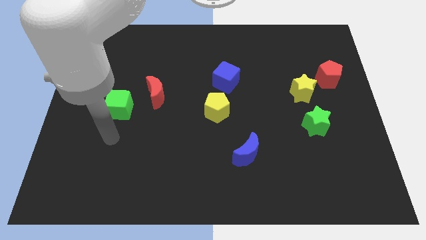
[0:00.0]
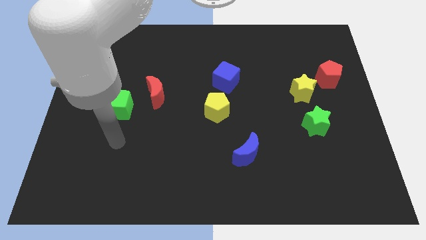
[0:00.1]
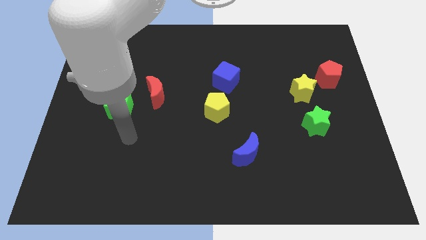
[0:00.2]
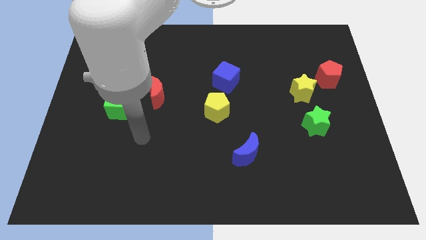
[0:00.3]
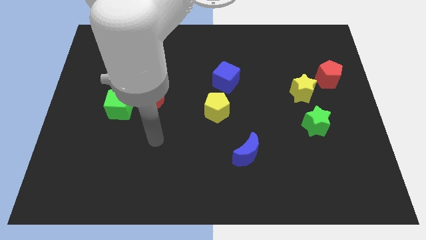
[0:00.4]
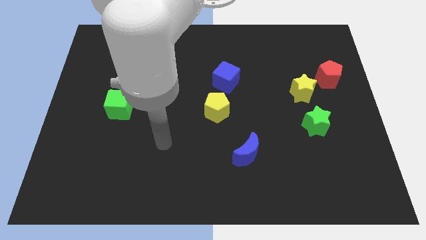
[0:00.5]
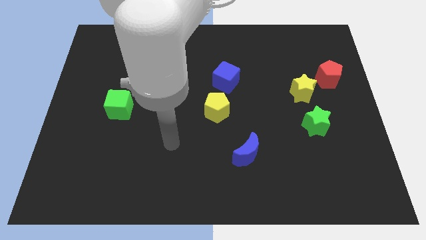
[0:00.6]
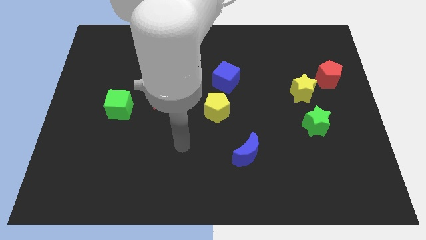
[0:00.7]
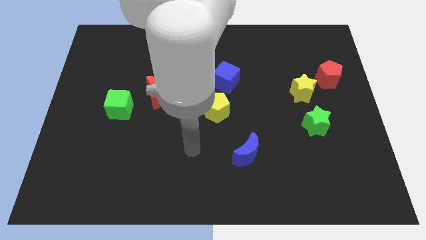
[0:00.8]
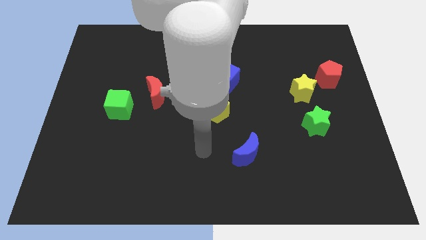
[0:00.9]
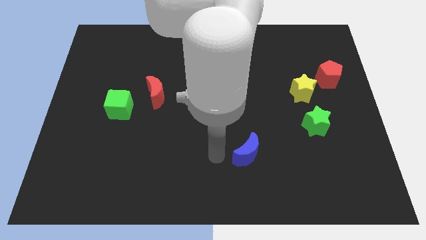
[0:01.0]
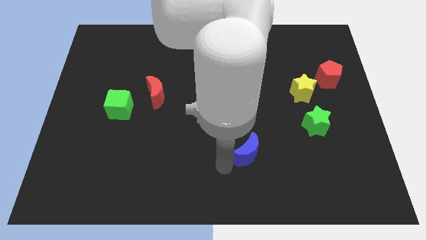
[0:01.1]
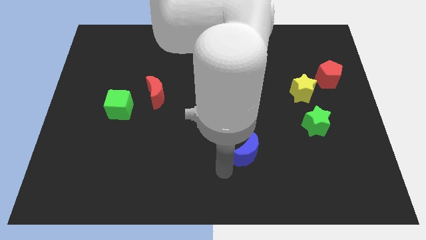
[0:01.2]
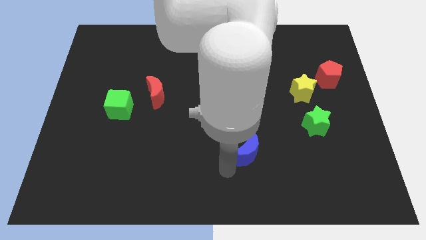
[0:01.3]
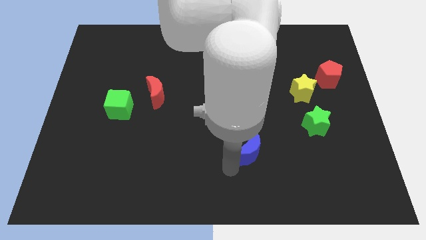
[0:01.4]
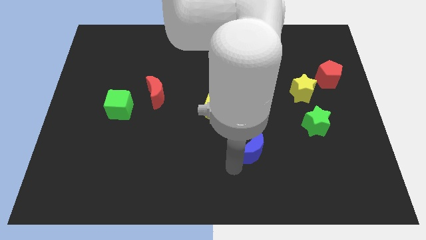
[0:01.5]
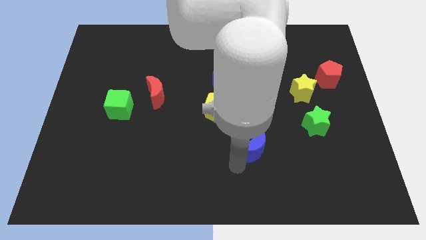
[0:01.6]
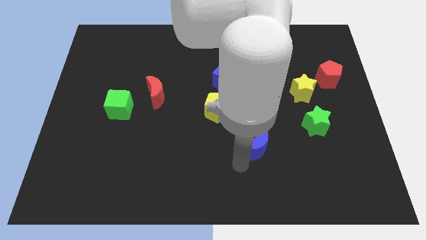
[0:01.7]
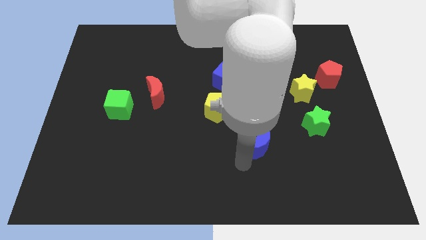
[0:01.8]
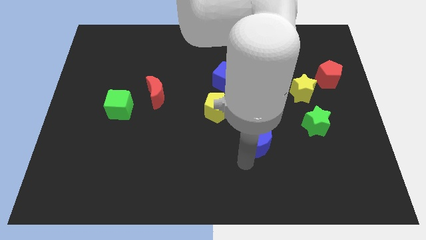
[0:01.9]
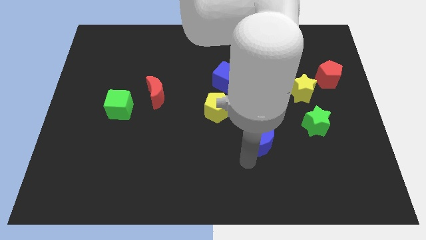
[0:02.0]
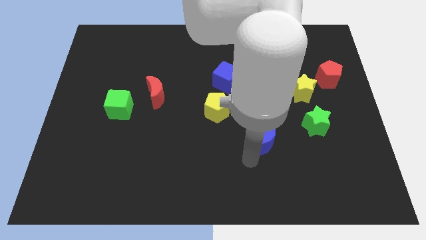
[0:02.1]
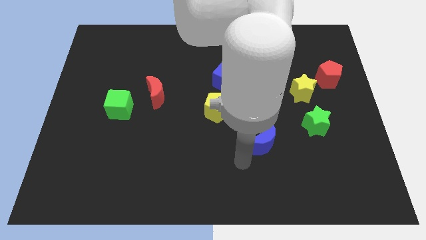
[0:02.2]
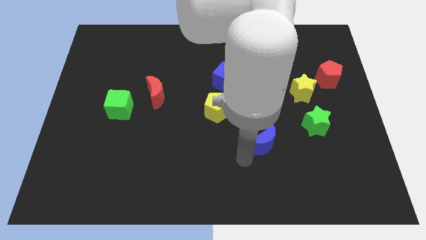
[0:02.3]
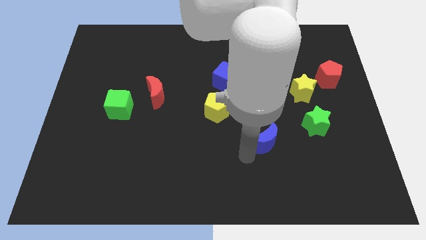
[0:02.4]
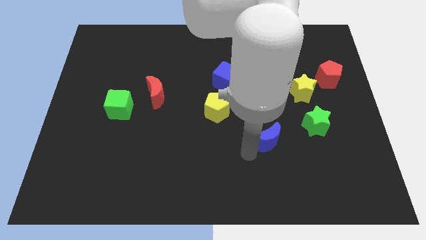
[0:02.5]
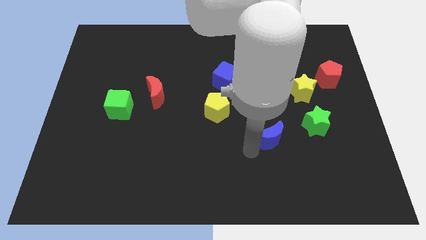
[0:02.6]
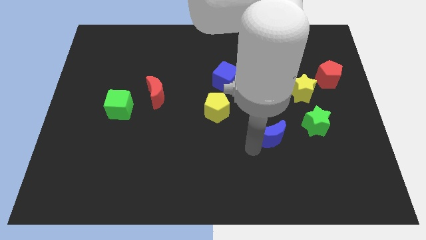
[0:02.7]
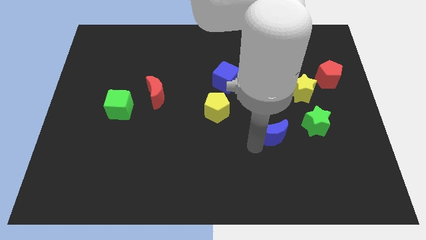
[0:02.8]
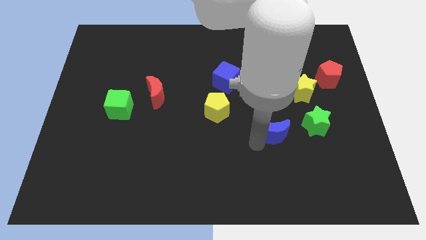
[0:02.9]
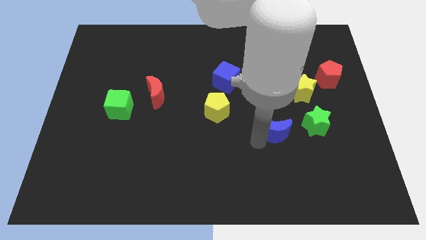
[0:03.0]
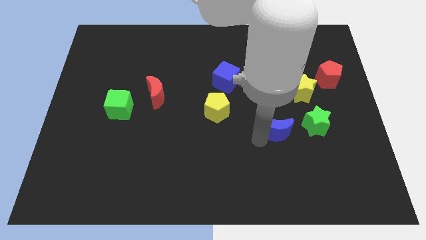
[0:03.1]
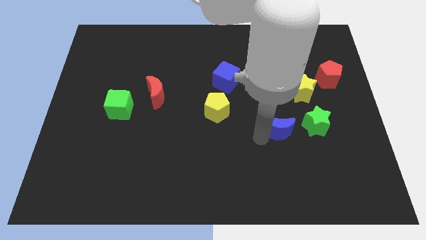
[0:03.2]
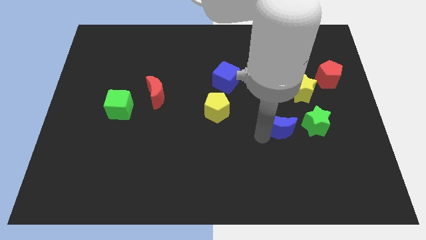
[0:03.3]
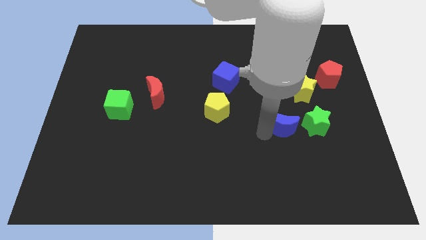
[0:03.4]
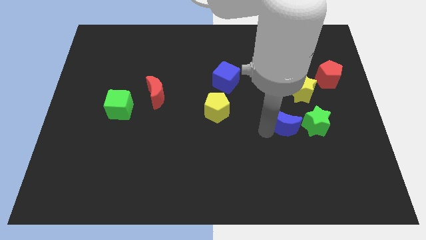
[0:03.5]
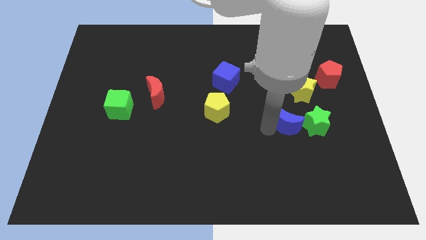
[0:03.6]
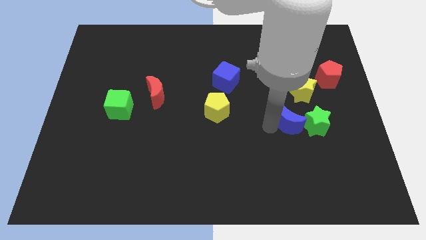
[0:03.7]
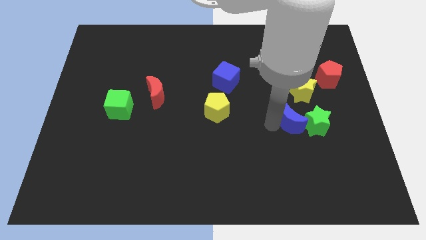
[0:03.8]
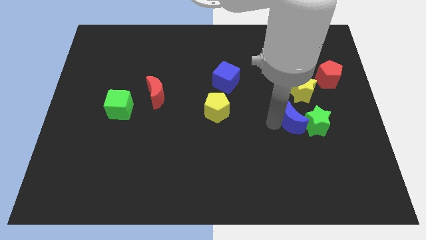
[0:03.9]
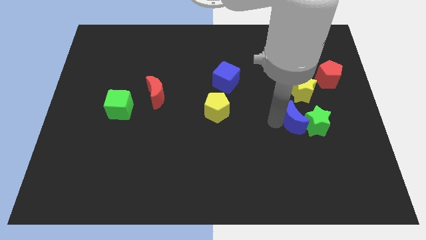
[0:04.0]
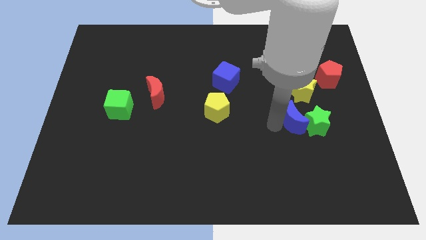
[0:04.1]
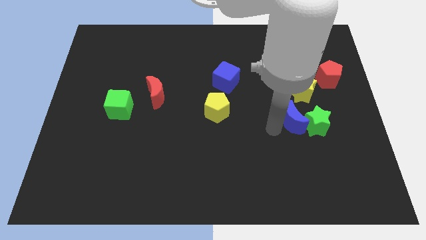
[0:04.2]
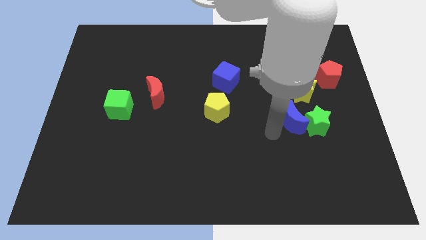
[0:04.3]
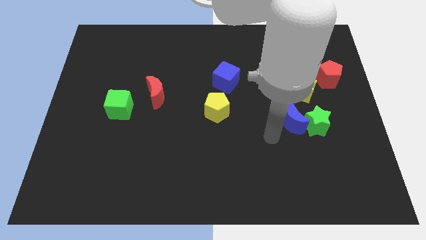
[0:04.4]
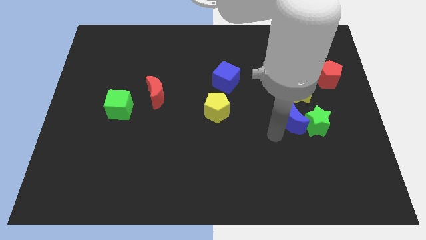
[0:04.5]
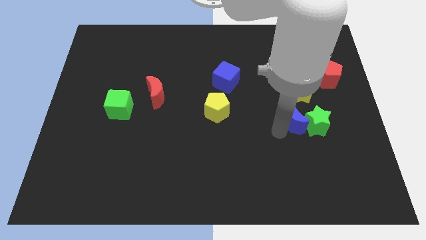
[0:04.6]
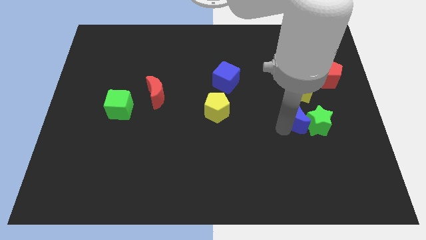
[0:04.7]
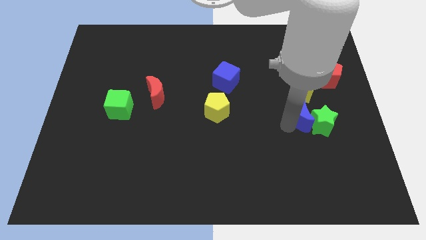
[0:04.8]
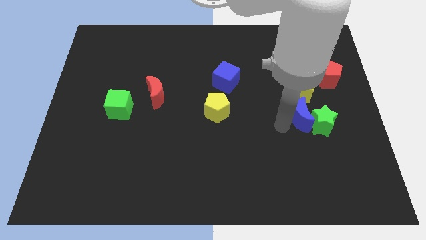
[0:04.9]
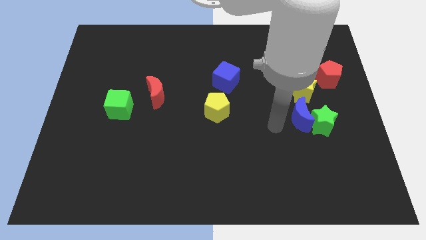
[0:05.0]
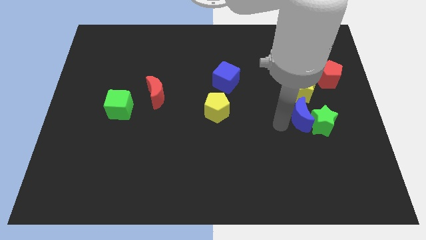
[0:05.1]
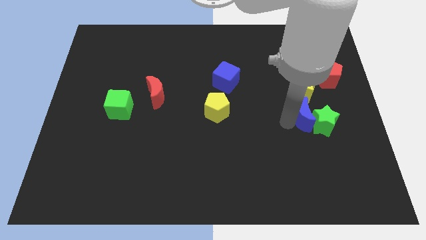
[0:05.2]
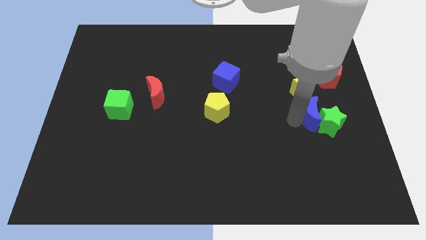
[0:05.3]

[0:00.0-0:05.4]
put the blue moon diagonally down and to the right of the yellow star

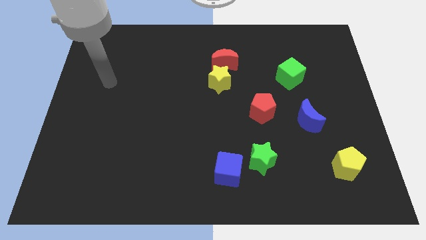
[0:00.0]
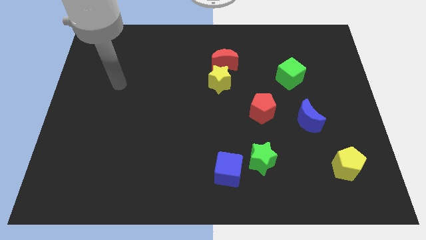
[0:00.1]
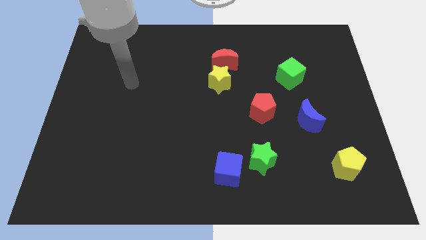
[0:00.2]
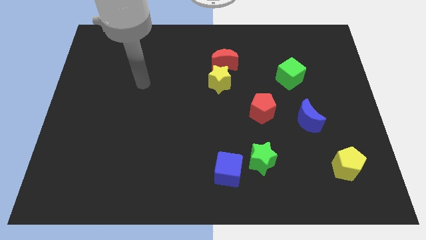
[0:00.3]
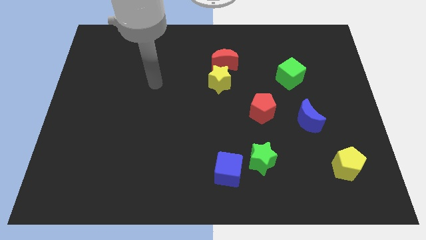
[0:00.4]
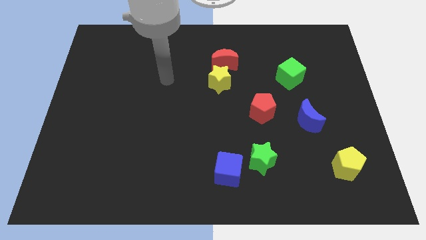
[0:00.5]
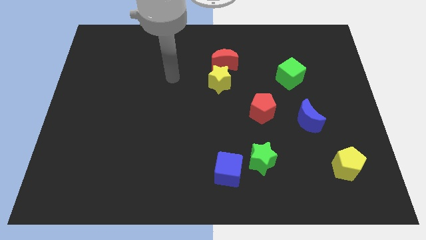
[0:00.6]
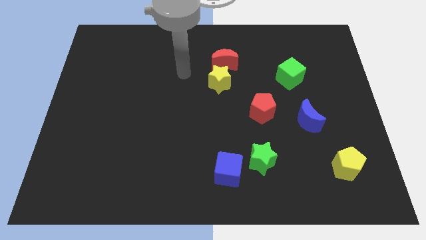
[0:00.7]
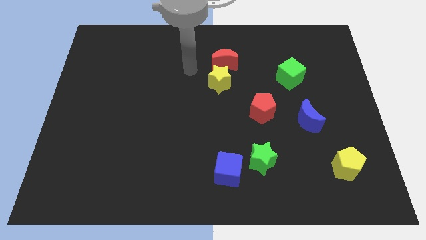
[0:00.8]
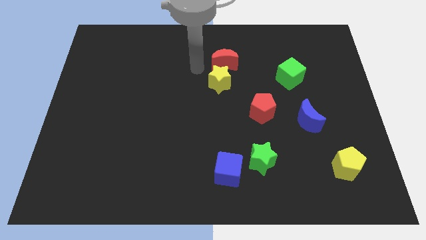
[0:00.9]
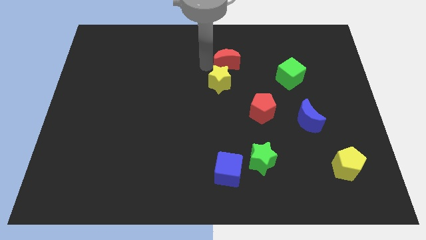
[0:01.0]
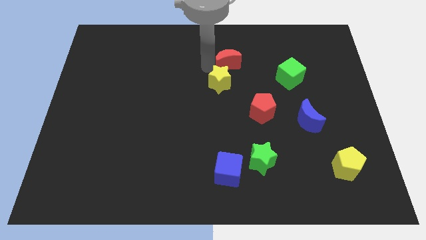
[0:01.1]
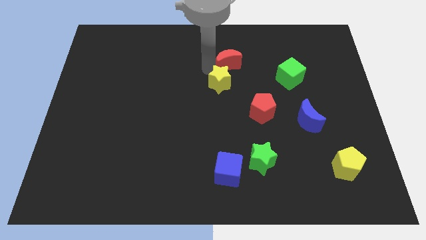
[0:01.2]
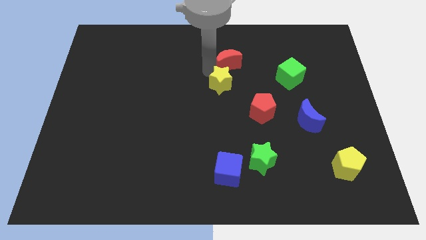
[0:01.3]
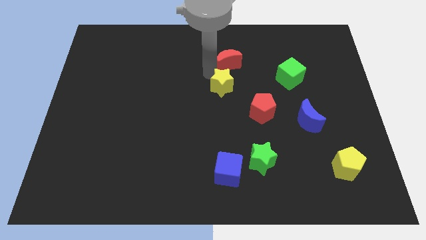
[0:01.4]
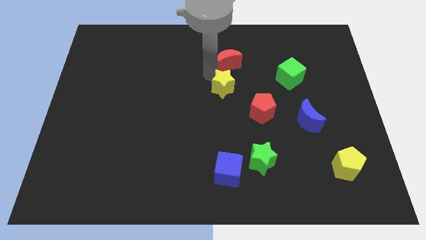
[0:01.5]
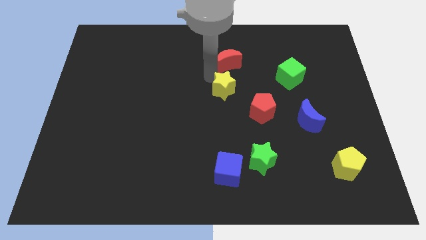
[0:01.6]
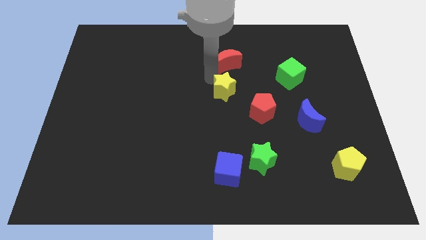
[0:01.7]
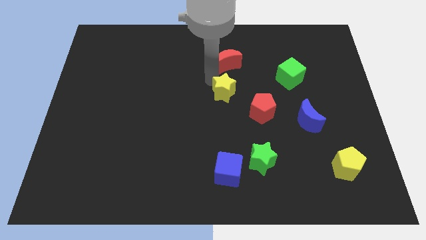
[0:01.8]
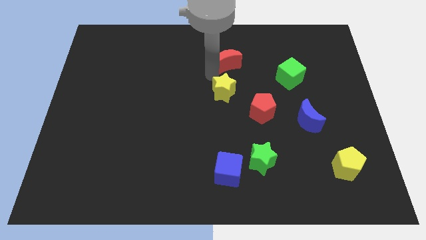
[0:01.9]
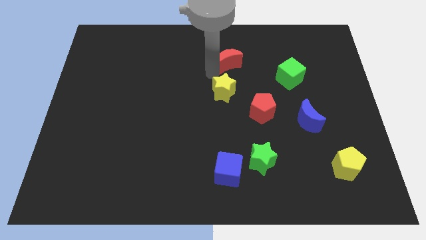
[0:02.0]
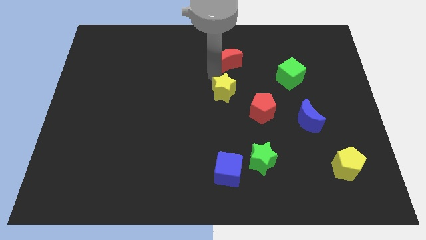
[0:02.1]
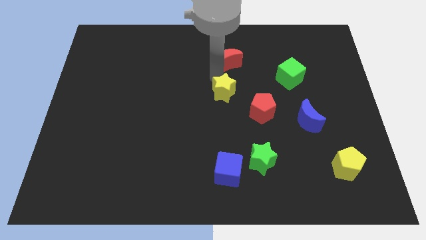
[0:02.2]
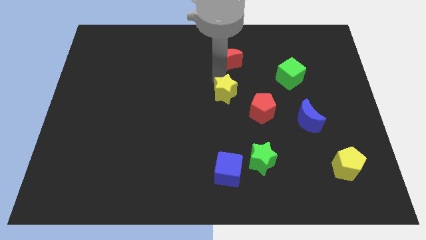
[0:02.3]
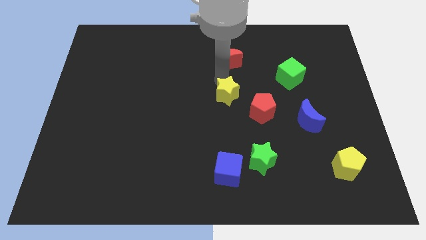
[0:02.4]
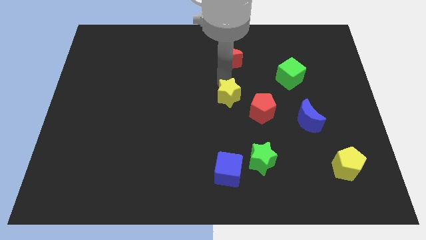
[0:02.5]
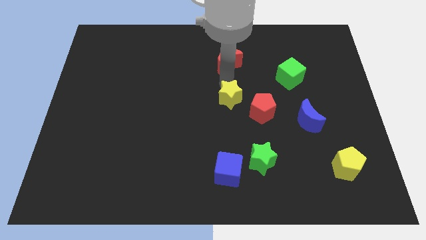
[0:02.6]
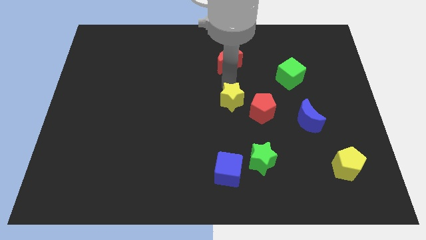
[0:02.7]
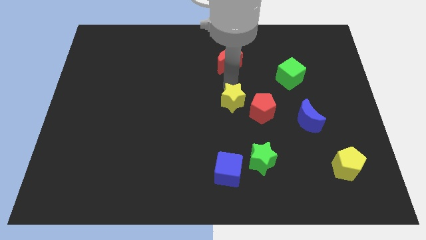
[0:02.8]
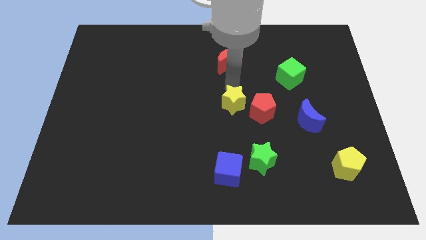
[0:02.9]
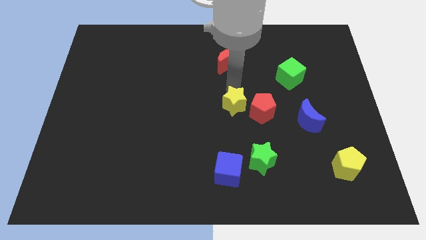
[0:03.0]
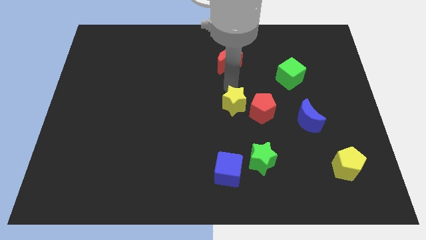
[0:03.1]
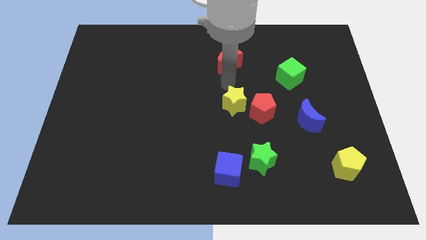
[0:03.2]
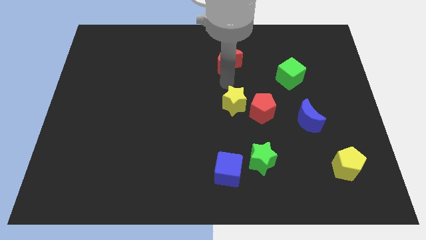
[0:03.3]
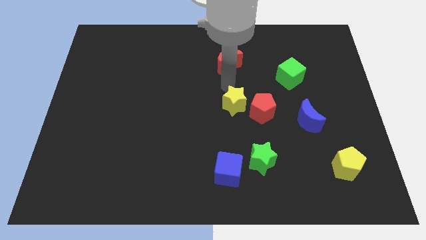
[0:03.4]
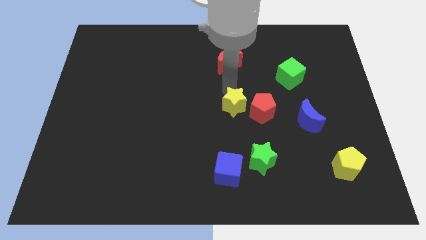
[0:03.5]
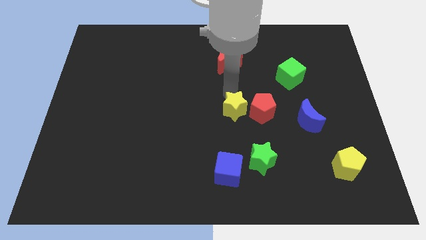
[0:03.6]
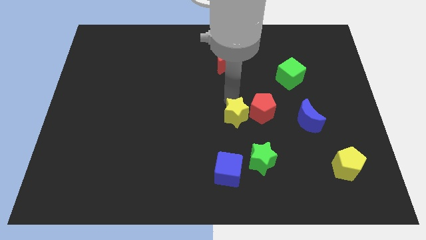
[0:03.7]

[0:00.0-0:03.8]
slide the yellow star to the bottom left side of the red pentagon
